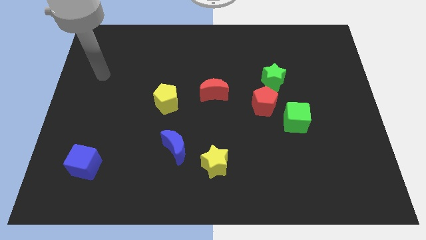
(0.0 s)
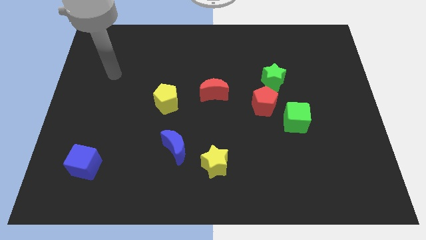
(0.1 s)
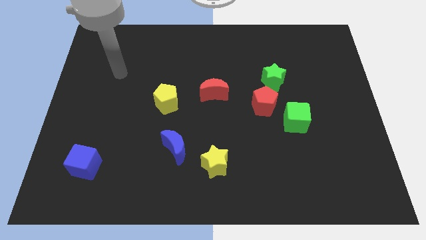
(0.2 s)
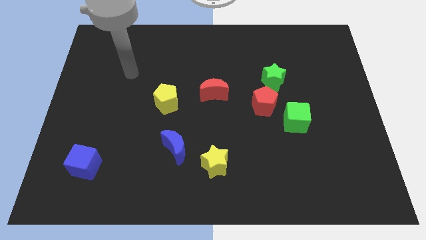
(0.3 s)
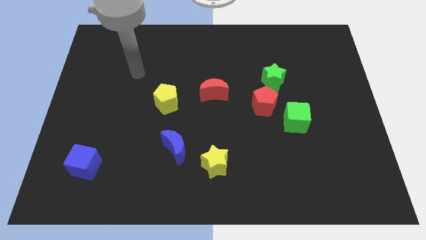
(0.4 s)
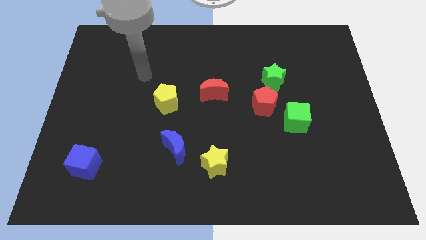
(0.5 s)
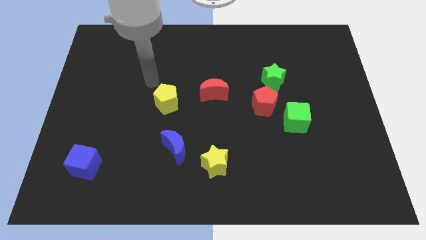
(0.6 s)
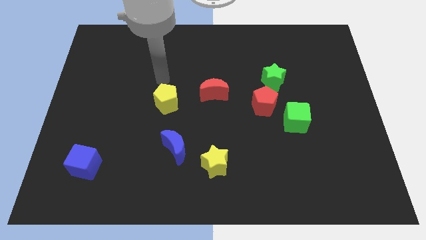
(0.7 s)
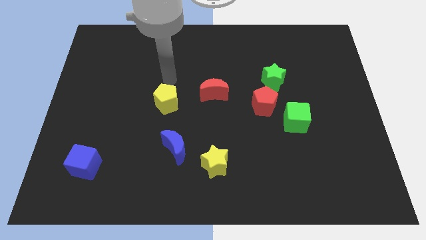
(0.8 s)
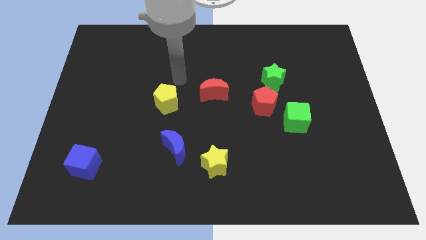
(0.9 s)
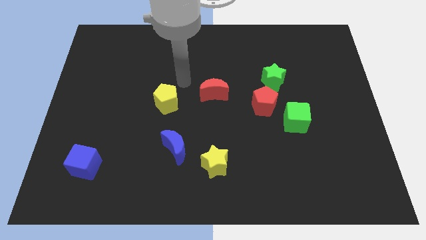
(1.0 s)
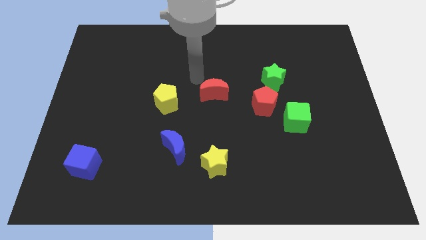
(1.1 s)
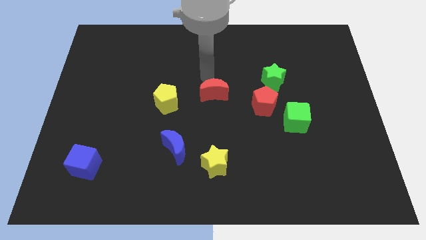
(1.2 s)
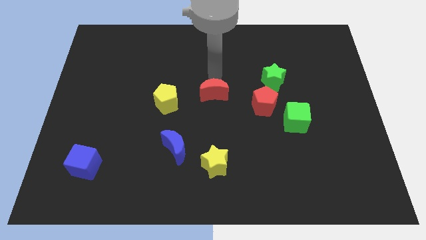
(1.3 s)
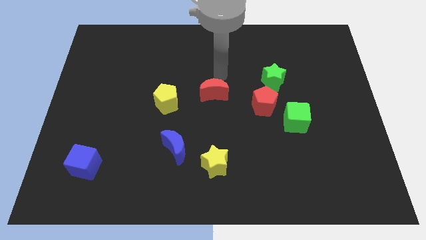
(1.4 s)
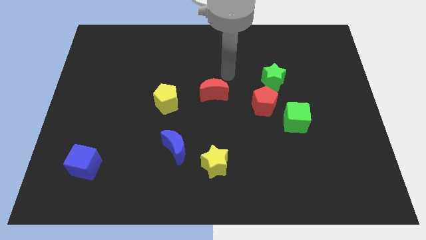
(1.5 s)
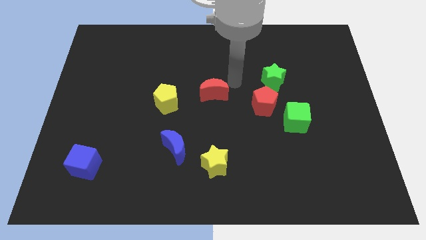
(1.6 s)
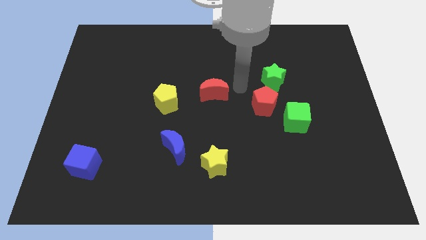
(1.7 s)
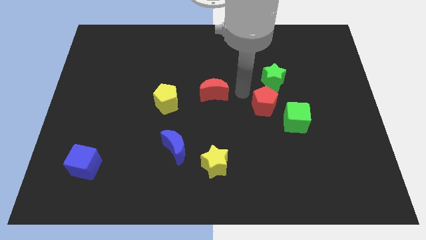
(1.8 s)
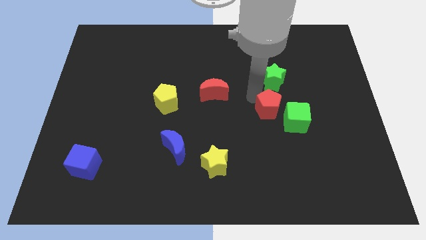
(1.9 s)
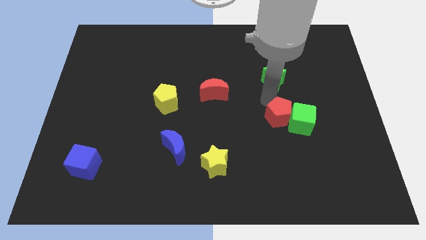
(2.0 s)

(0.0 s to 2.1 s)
pull the green star apart from the red pentagon

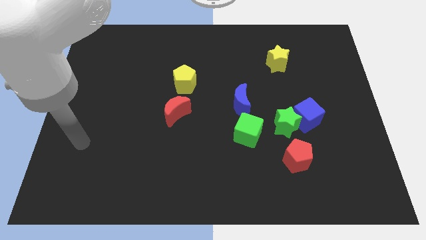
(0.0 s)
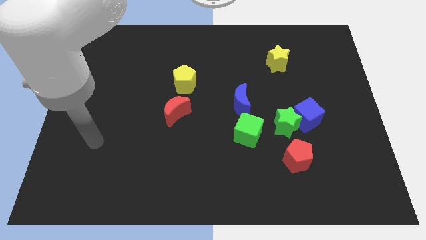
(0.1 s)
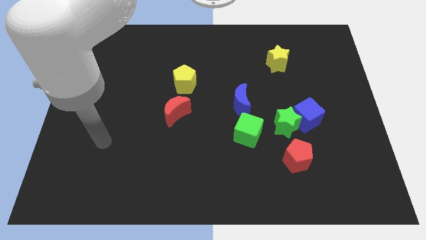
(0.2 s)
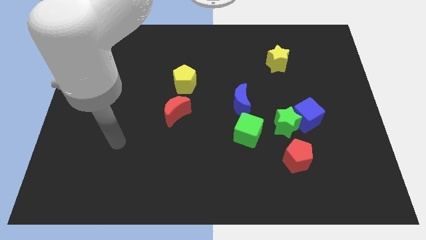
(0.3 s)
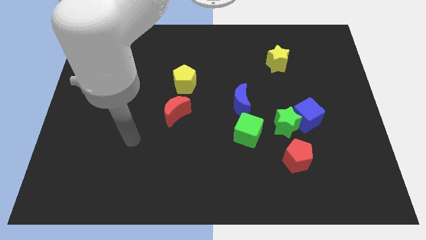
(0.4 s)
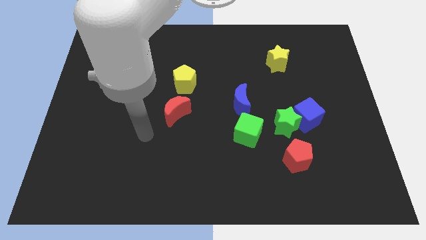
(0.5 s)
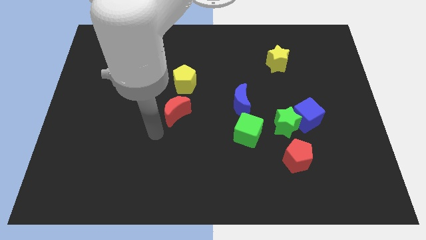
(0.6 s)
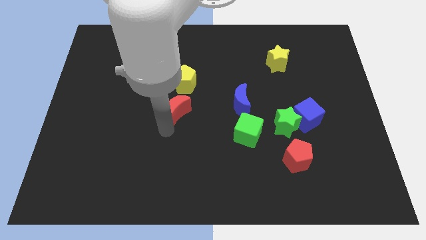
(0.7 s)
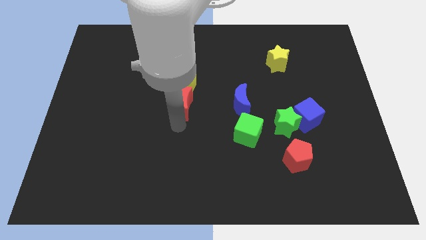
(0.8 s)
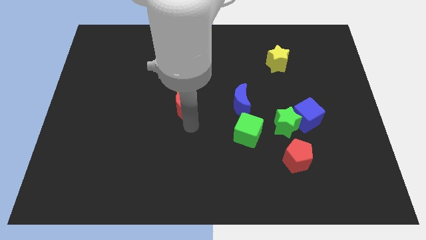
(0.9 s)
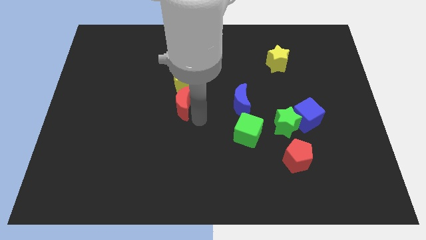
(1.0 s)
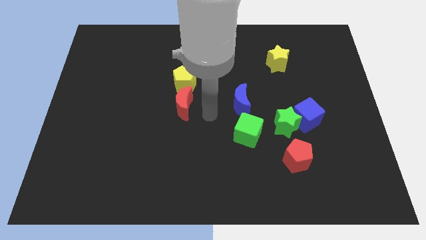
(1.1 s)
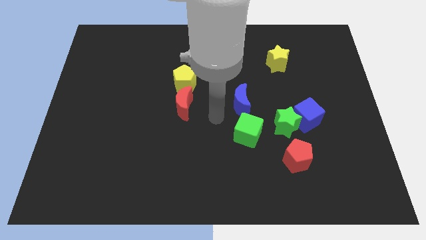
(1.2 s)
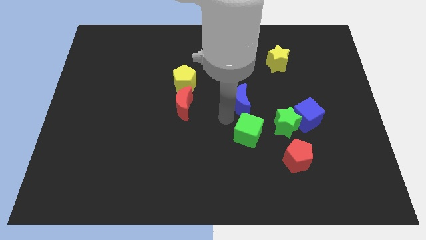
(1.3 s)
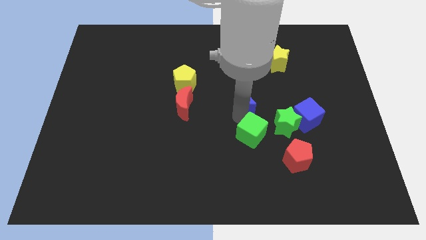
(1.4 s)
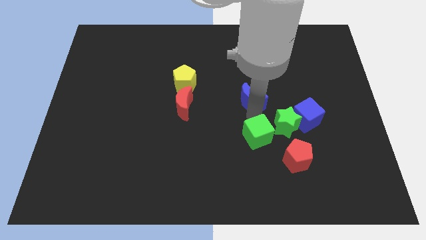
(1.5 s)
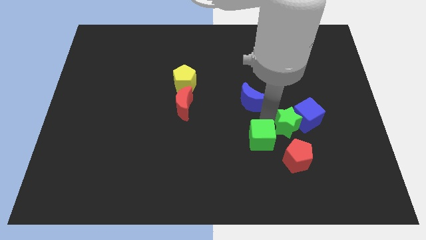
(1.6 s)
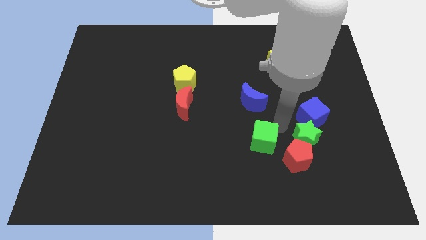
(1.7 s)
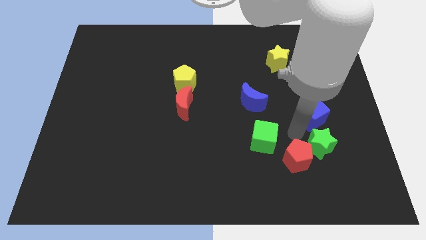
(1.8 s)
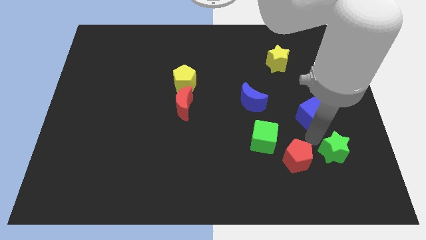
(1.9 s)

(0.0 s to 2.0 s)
pull the blue cube apart from the green star

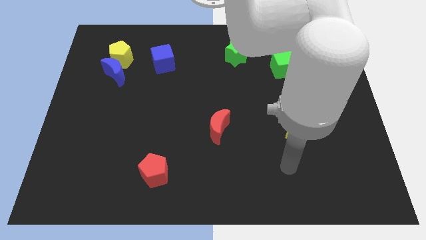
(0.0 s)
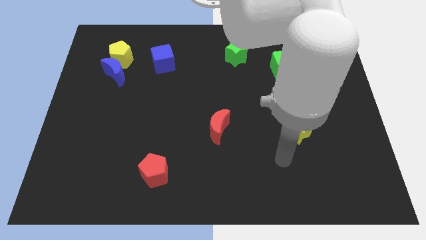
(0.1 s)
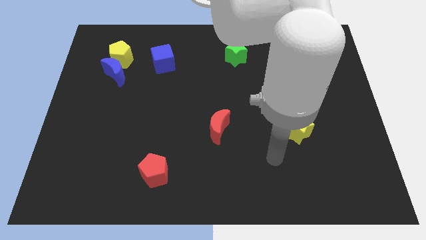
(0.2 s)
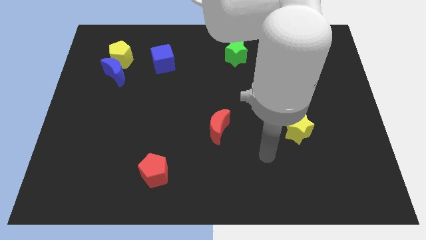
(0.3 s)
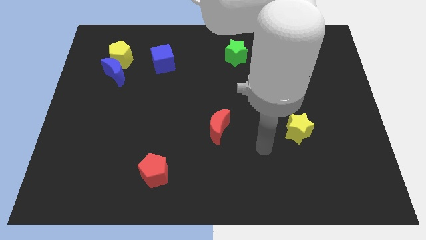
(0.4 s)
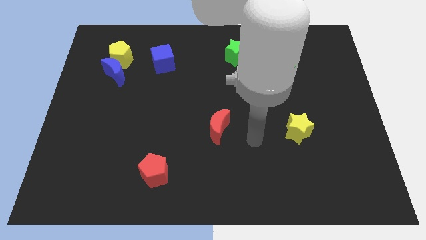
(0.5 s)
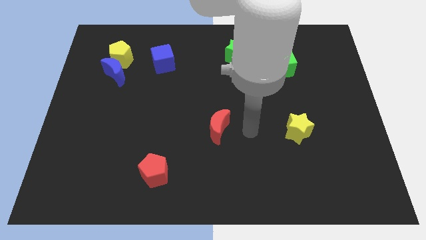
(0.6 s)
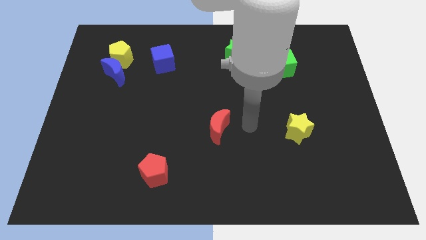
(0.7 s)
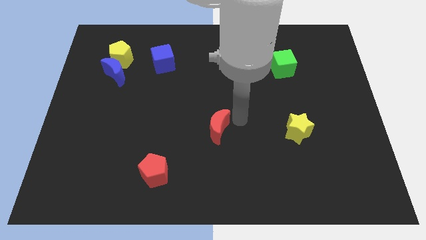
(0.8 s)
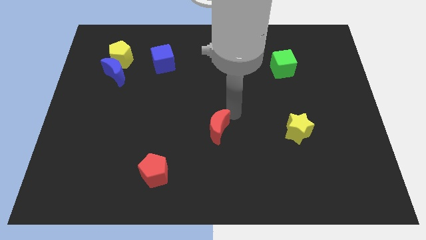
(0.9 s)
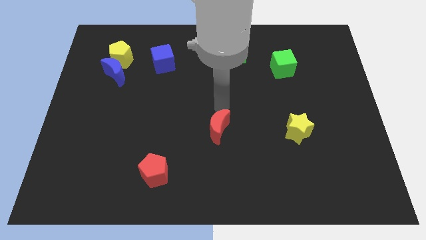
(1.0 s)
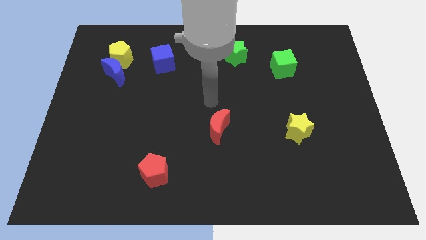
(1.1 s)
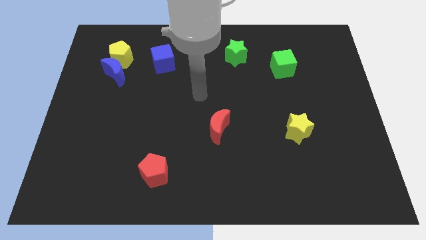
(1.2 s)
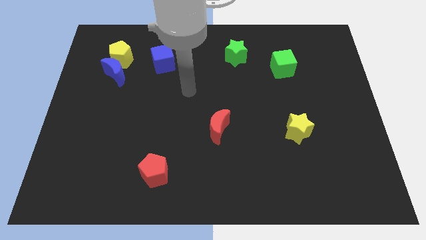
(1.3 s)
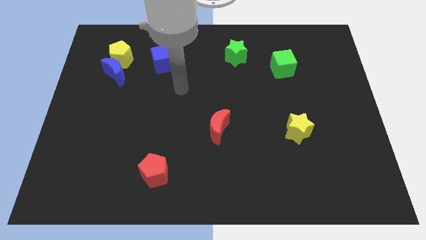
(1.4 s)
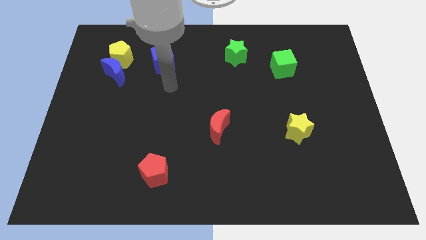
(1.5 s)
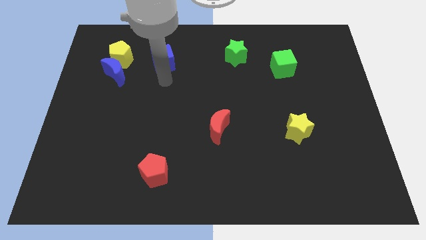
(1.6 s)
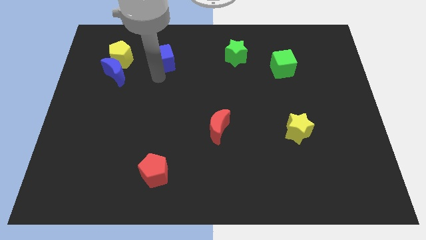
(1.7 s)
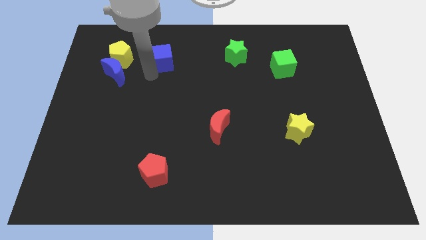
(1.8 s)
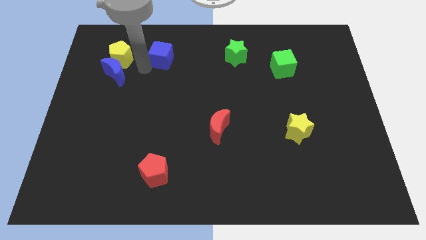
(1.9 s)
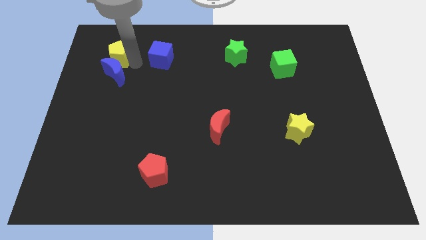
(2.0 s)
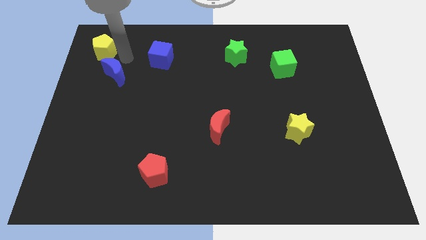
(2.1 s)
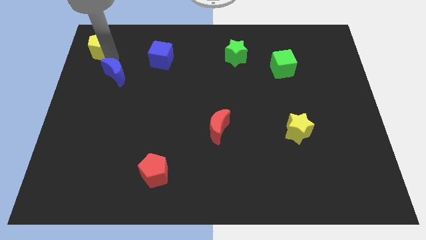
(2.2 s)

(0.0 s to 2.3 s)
pull the blue moon apart from the yellow pentagon

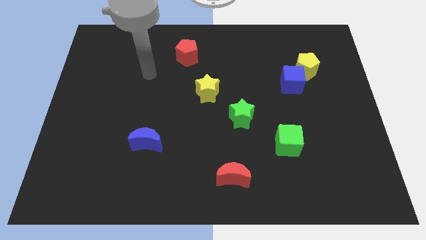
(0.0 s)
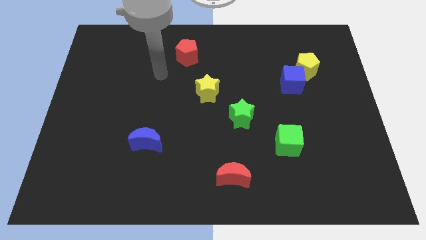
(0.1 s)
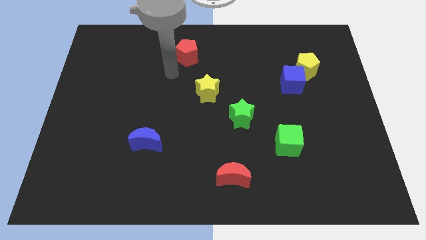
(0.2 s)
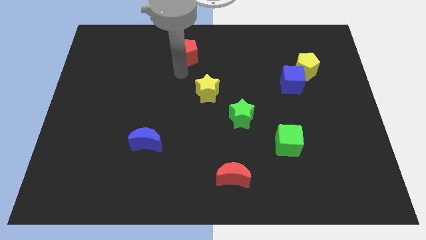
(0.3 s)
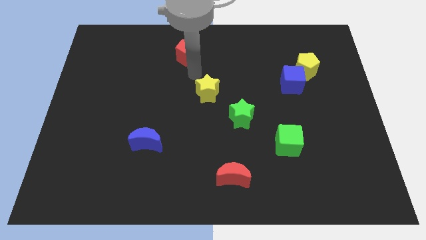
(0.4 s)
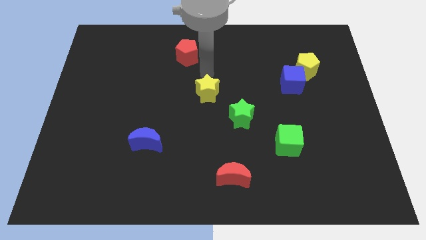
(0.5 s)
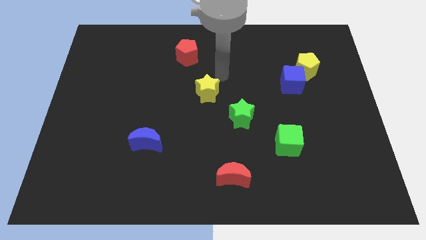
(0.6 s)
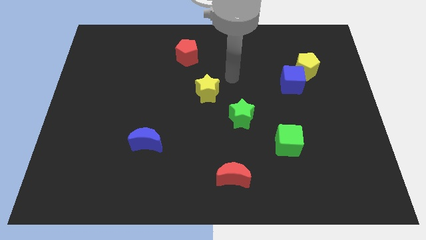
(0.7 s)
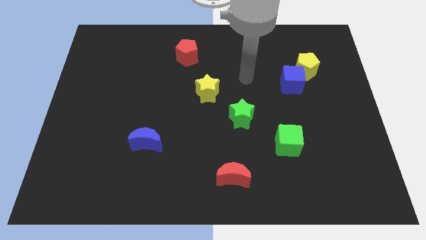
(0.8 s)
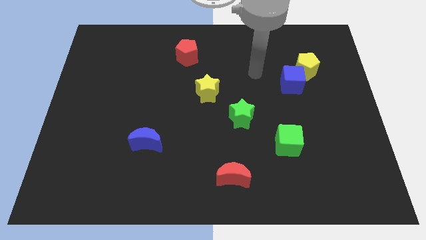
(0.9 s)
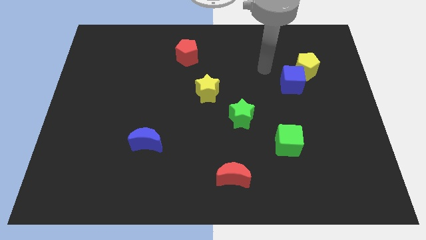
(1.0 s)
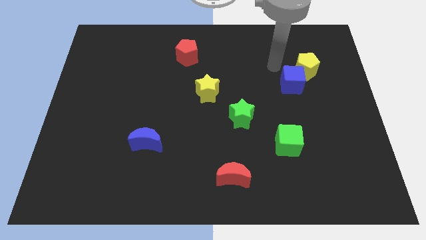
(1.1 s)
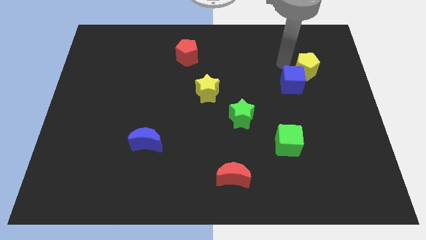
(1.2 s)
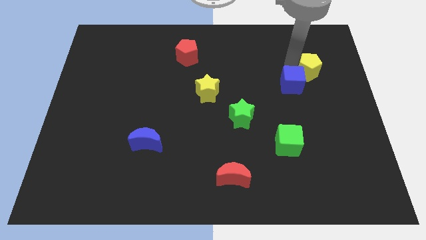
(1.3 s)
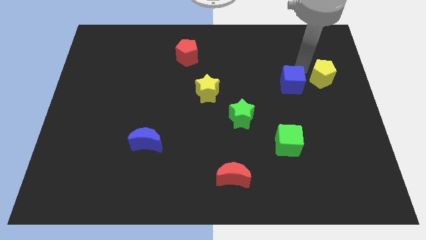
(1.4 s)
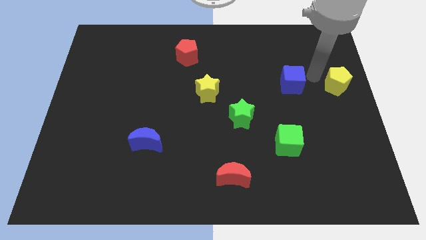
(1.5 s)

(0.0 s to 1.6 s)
separate the blue cube from the yellow pentagon

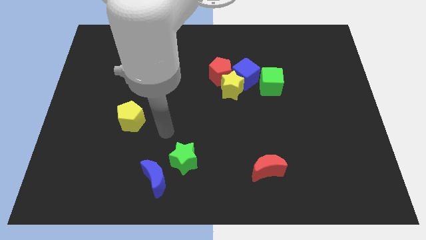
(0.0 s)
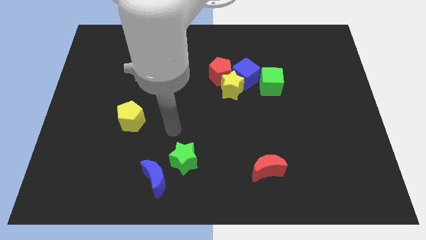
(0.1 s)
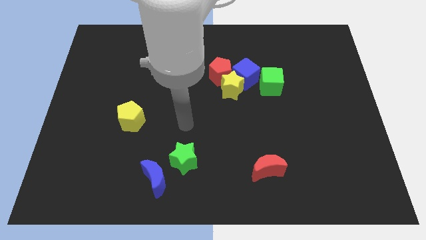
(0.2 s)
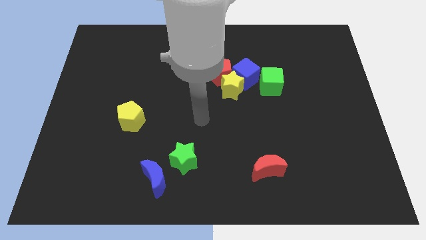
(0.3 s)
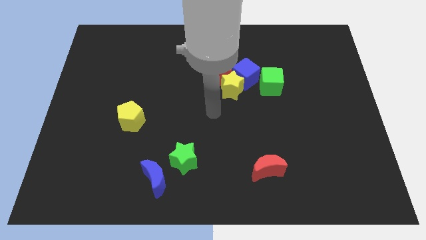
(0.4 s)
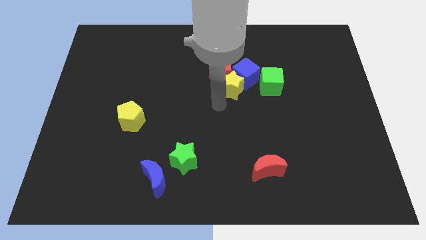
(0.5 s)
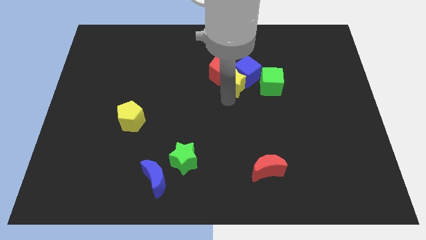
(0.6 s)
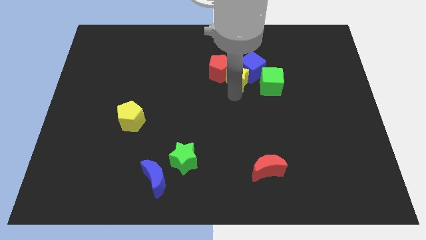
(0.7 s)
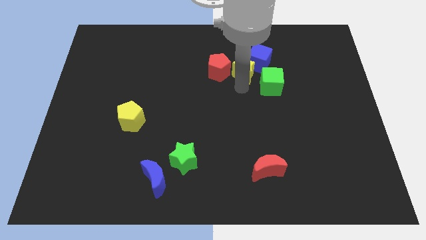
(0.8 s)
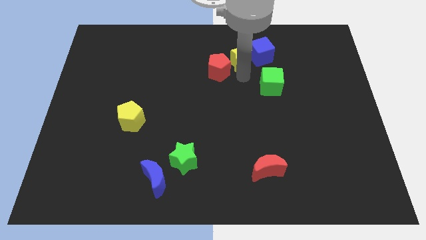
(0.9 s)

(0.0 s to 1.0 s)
pull the red pentagon apart from the yellow star and blue cube

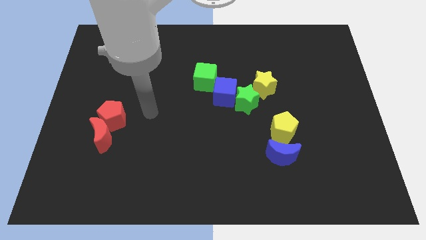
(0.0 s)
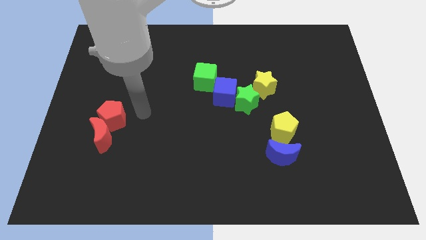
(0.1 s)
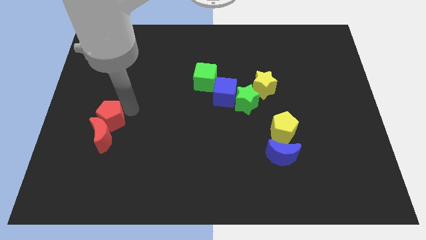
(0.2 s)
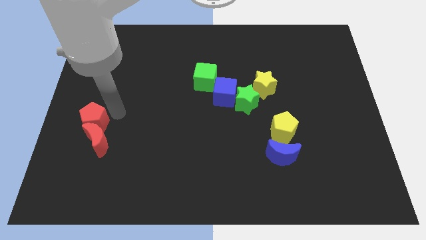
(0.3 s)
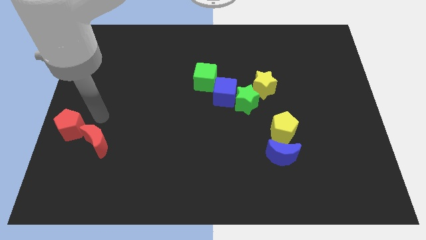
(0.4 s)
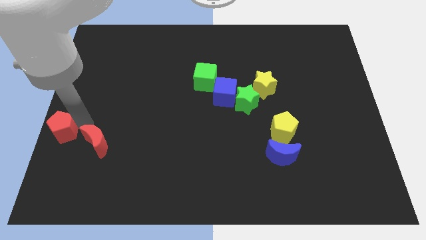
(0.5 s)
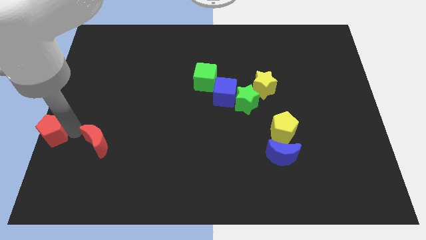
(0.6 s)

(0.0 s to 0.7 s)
move the red moon away from the red pentagon
